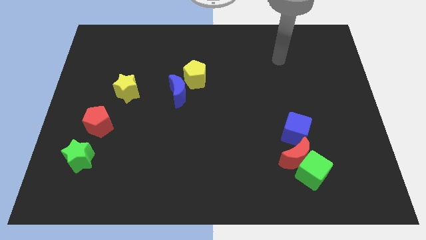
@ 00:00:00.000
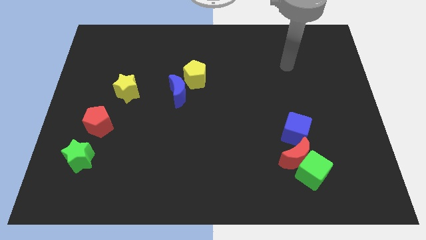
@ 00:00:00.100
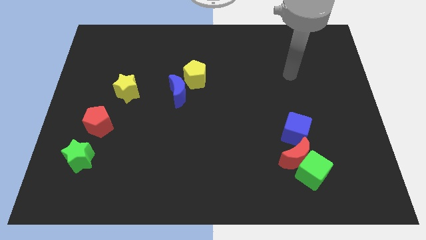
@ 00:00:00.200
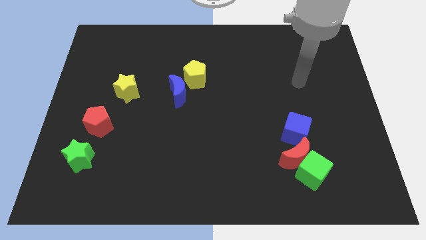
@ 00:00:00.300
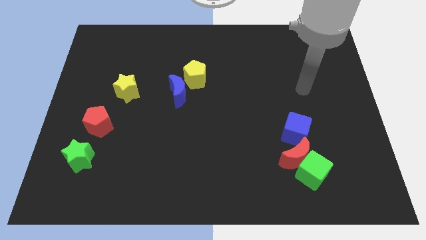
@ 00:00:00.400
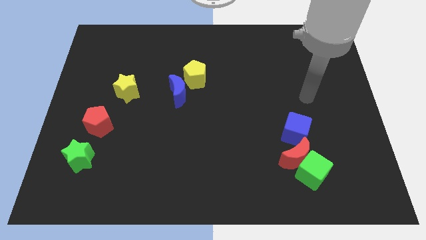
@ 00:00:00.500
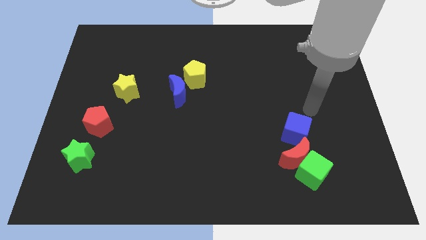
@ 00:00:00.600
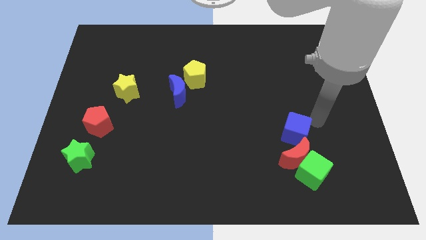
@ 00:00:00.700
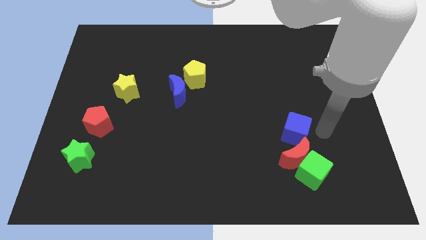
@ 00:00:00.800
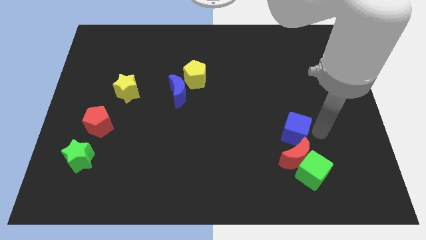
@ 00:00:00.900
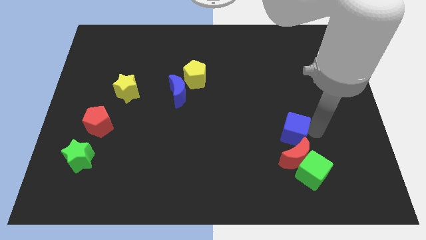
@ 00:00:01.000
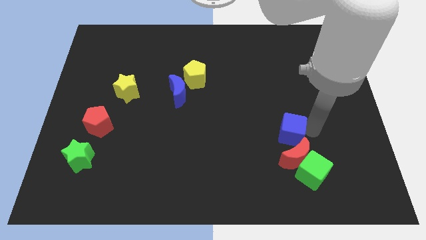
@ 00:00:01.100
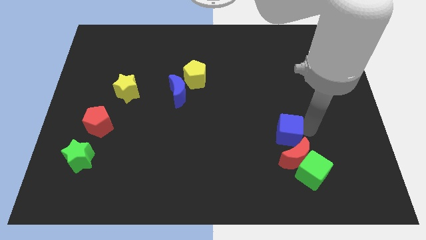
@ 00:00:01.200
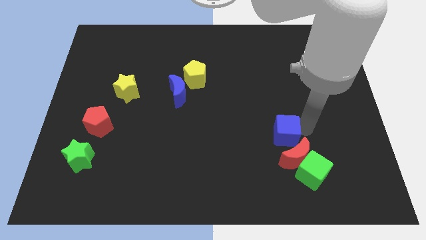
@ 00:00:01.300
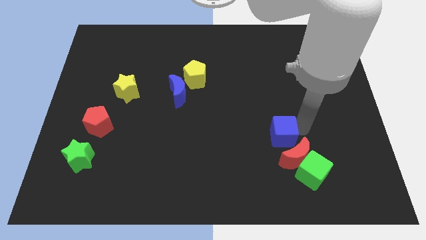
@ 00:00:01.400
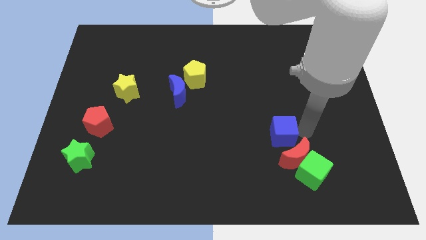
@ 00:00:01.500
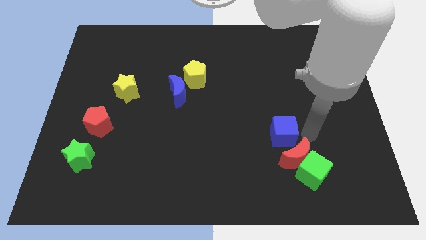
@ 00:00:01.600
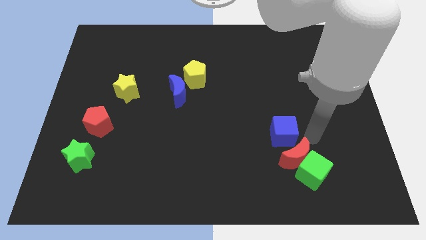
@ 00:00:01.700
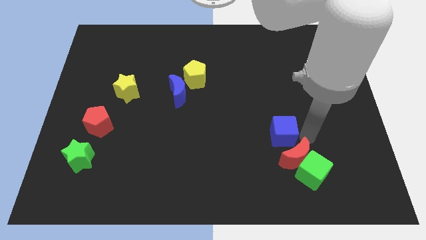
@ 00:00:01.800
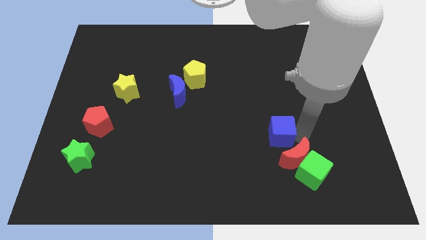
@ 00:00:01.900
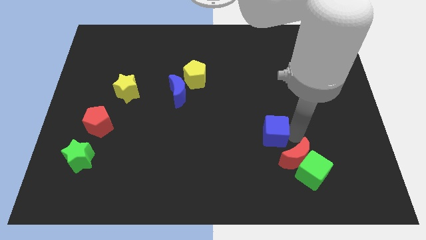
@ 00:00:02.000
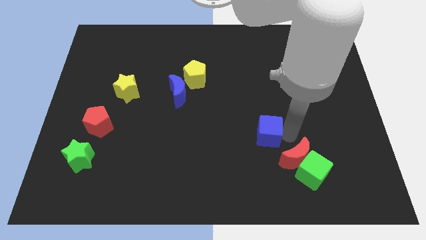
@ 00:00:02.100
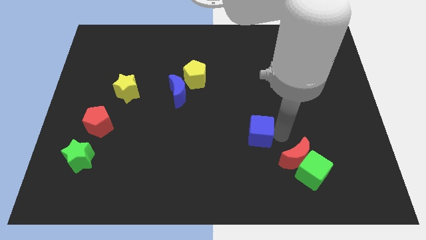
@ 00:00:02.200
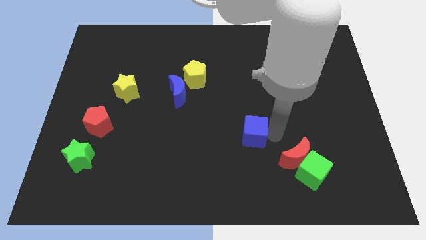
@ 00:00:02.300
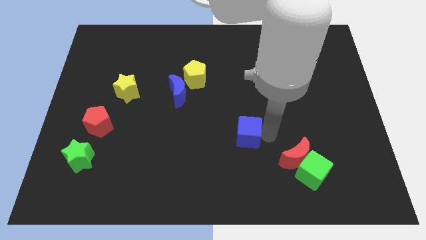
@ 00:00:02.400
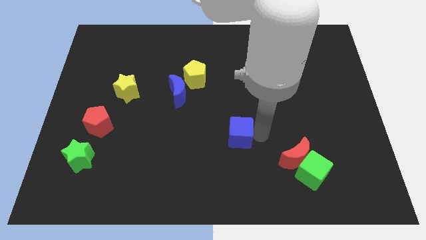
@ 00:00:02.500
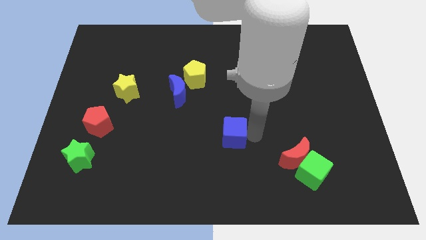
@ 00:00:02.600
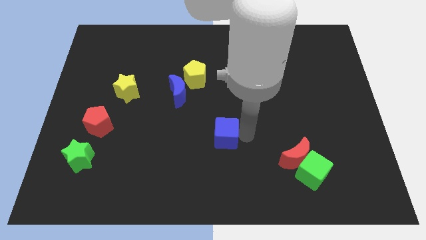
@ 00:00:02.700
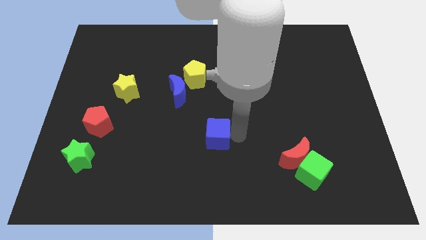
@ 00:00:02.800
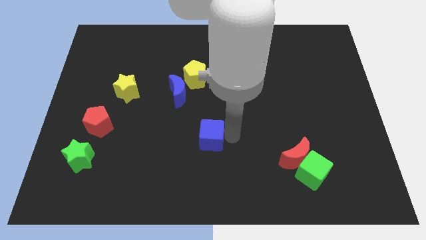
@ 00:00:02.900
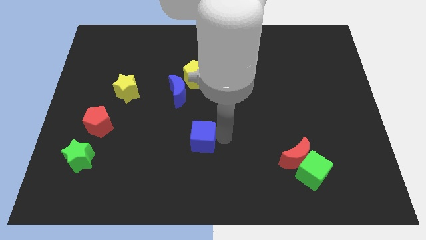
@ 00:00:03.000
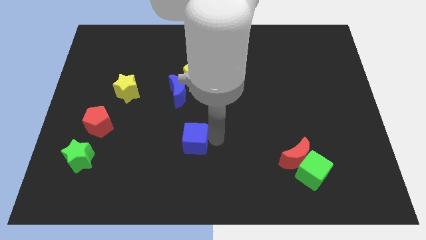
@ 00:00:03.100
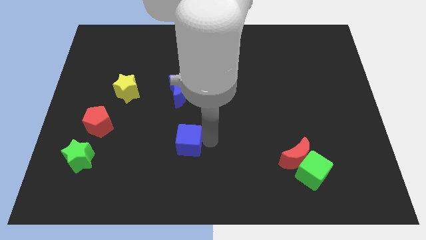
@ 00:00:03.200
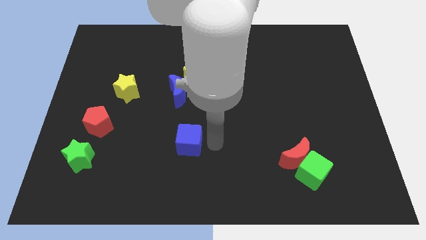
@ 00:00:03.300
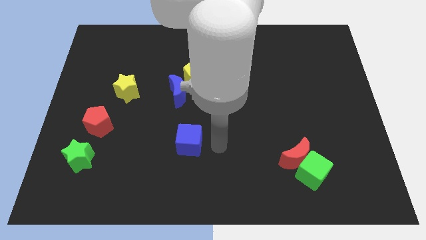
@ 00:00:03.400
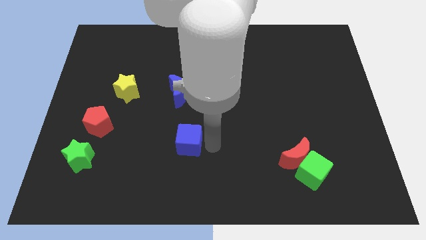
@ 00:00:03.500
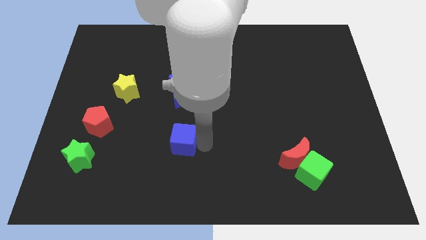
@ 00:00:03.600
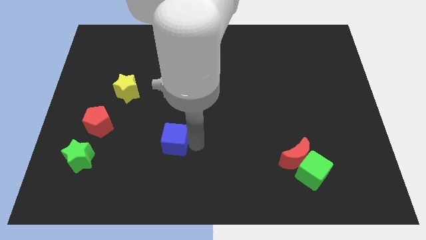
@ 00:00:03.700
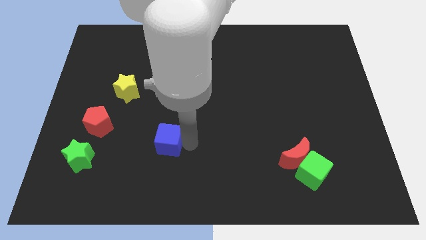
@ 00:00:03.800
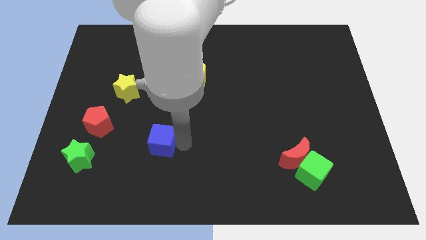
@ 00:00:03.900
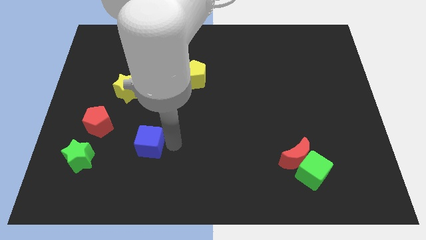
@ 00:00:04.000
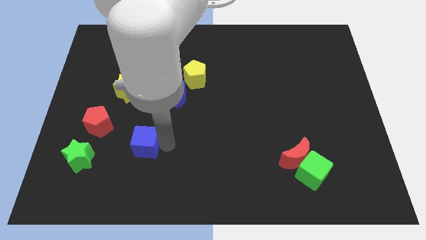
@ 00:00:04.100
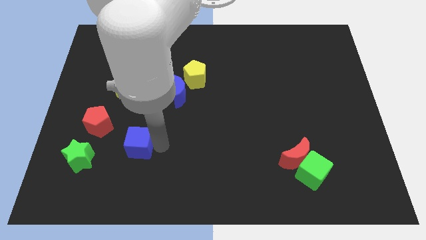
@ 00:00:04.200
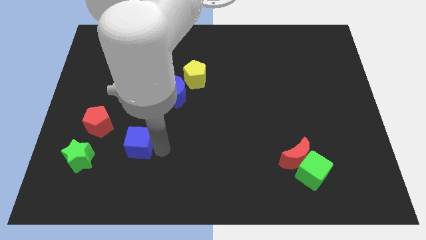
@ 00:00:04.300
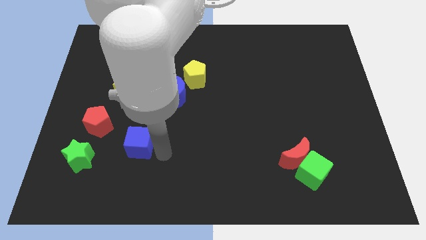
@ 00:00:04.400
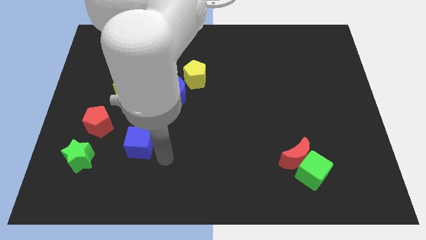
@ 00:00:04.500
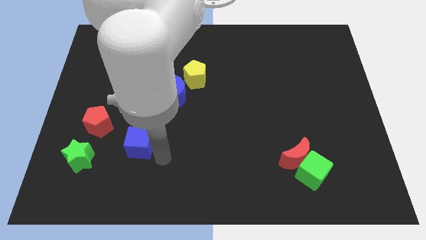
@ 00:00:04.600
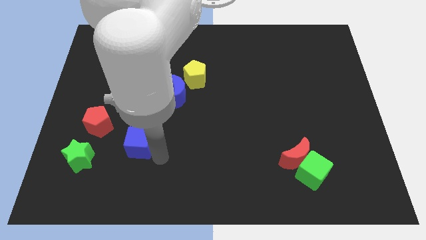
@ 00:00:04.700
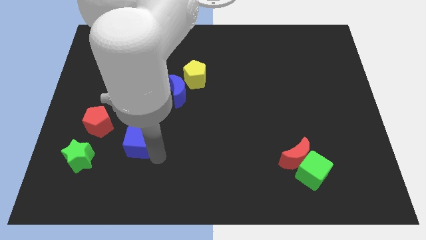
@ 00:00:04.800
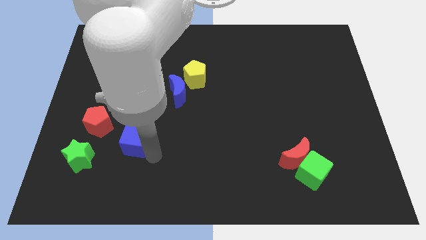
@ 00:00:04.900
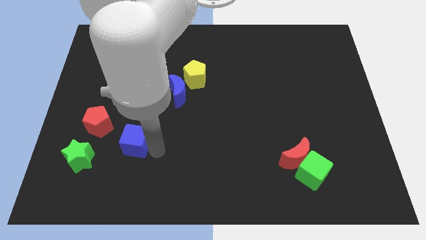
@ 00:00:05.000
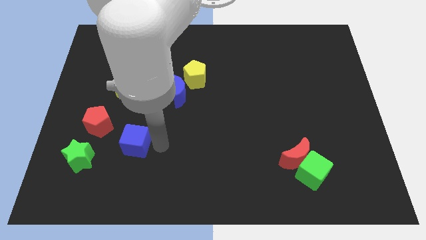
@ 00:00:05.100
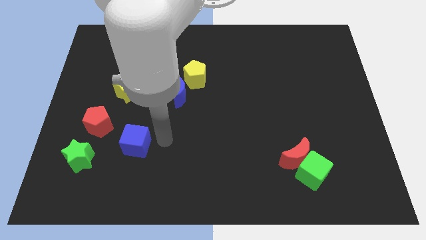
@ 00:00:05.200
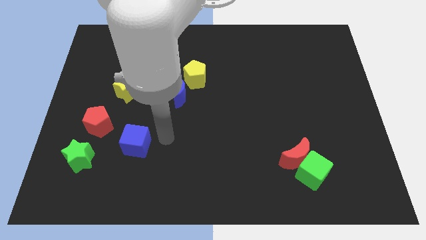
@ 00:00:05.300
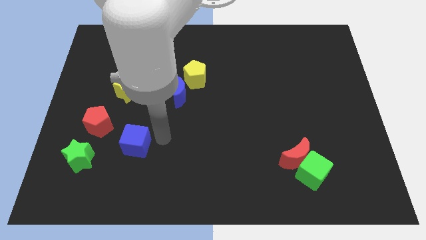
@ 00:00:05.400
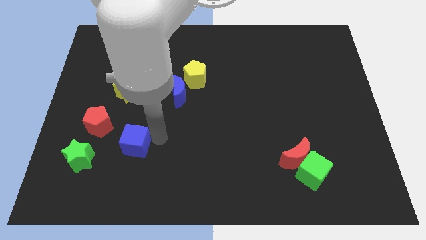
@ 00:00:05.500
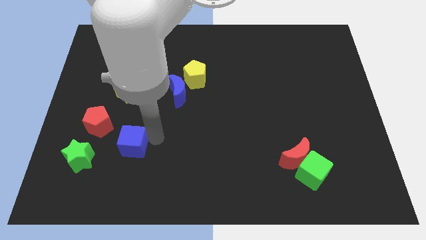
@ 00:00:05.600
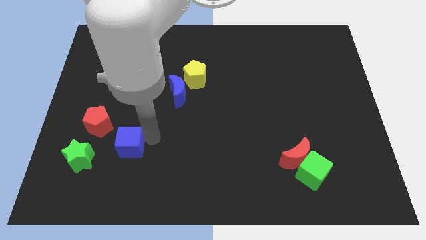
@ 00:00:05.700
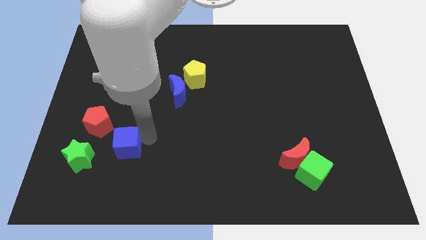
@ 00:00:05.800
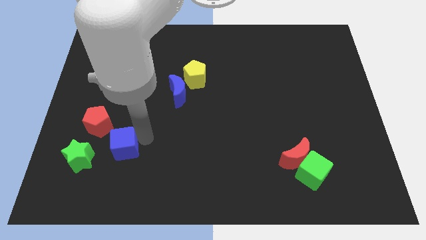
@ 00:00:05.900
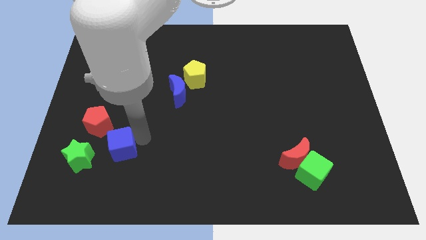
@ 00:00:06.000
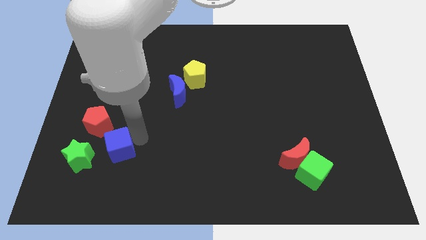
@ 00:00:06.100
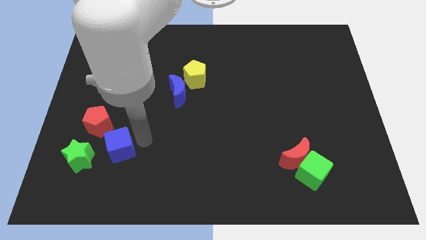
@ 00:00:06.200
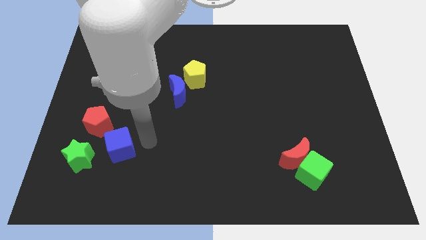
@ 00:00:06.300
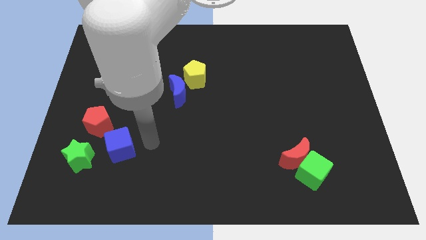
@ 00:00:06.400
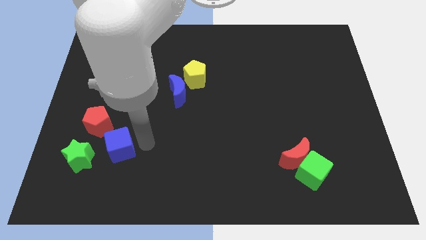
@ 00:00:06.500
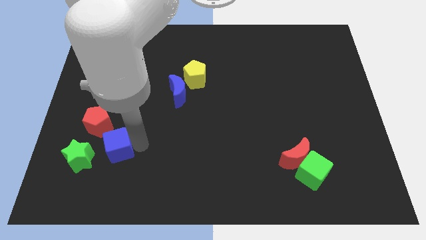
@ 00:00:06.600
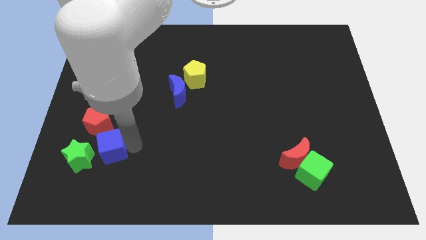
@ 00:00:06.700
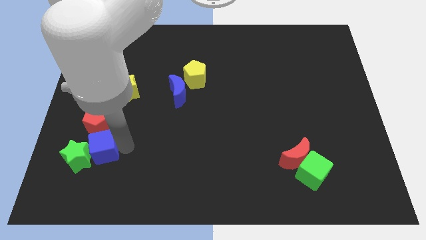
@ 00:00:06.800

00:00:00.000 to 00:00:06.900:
move the blue cube to the green star
